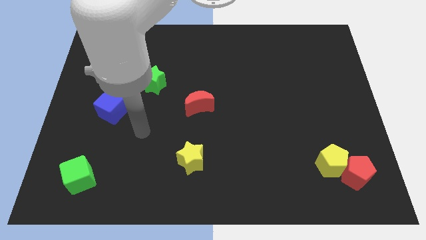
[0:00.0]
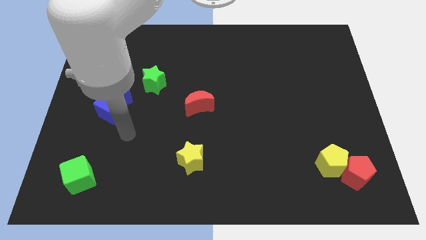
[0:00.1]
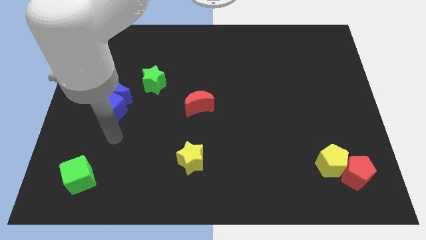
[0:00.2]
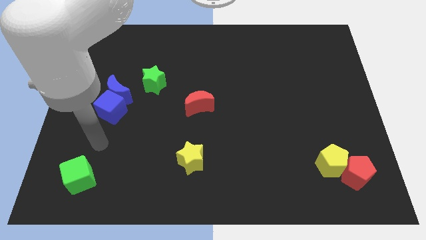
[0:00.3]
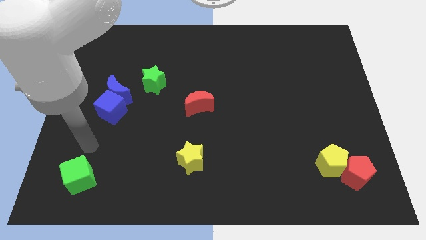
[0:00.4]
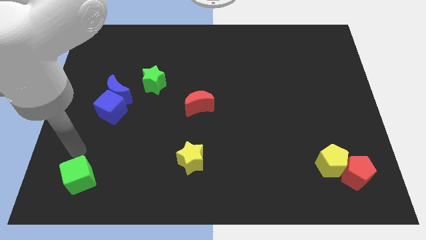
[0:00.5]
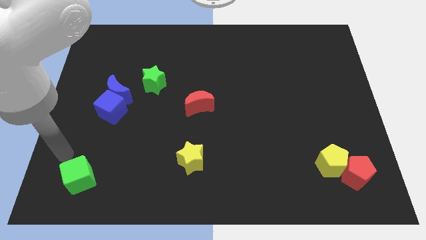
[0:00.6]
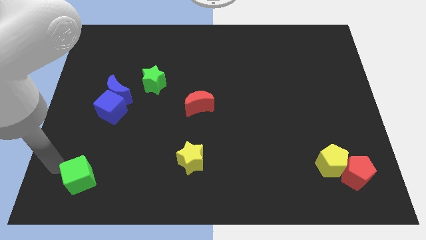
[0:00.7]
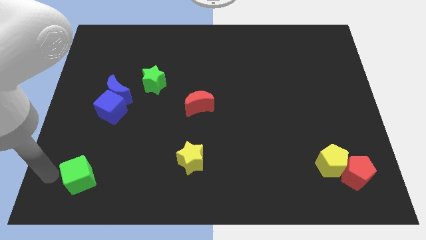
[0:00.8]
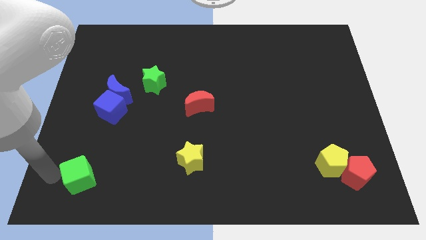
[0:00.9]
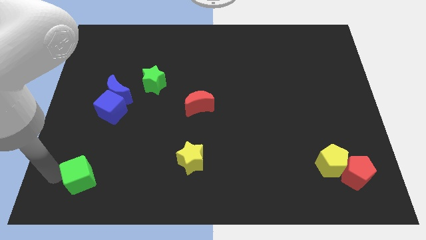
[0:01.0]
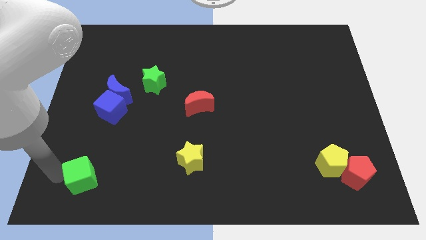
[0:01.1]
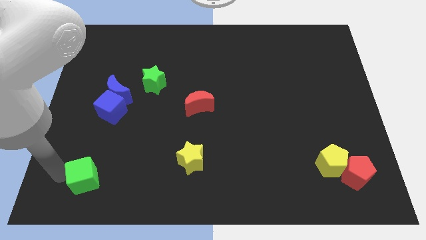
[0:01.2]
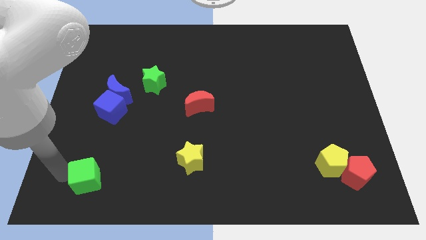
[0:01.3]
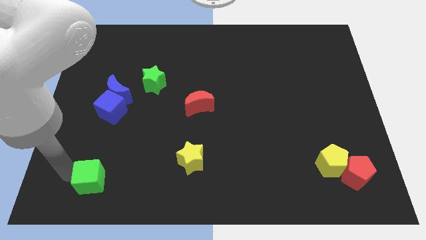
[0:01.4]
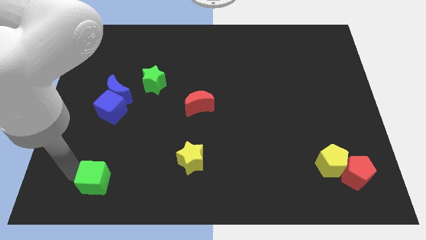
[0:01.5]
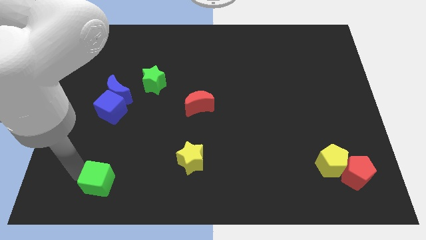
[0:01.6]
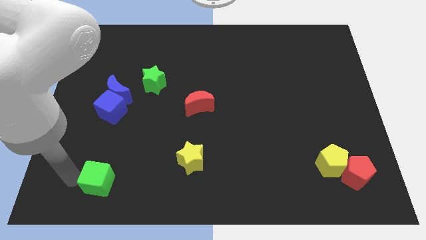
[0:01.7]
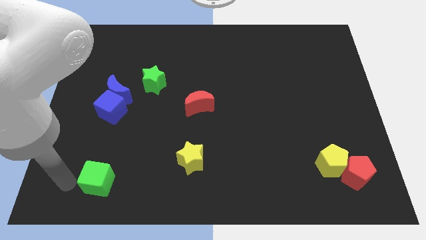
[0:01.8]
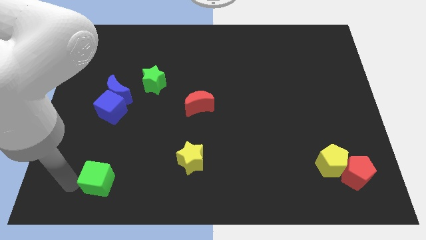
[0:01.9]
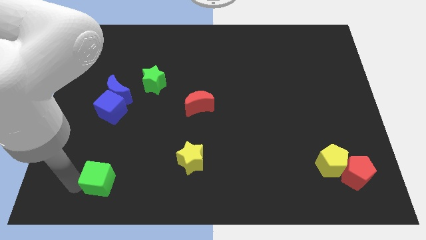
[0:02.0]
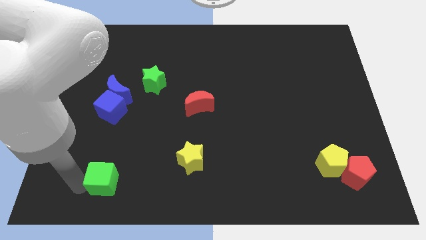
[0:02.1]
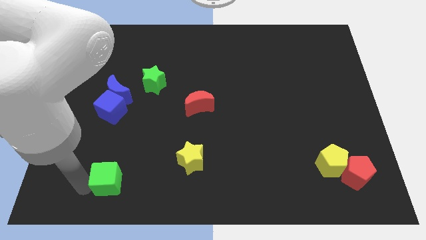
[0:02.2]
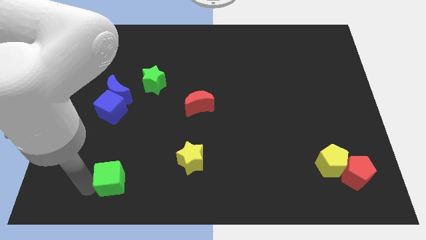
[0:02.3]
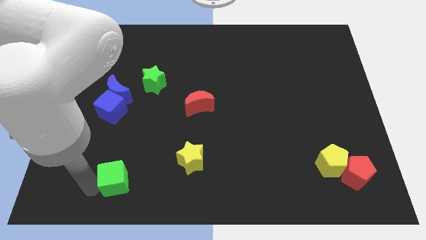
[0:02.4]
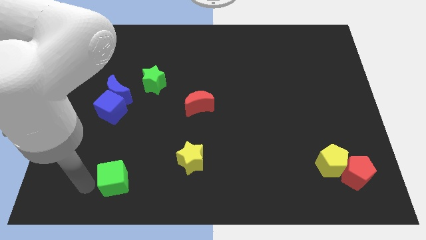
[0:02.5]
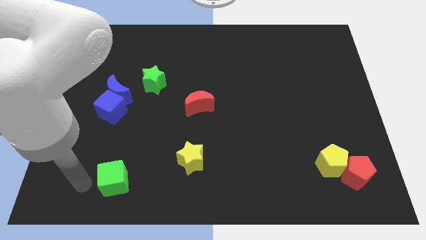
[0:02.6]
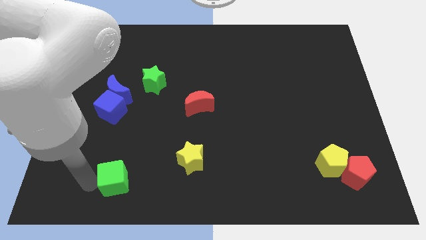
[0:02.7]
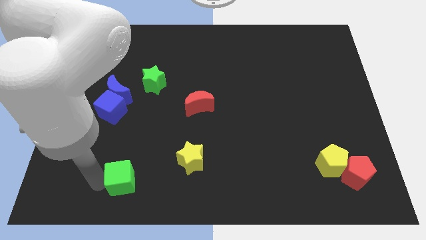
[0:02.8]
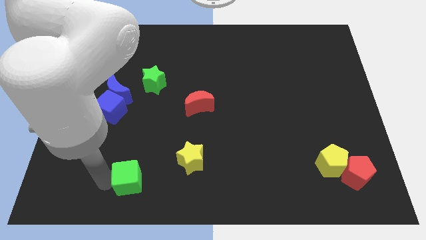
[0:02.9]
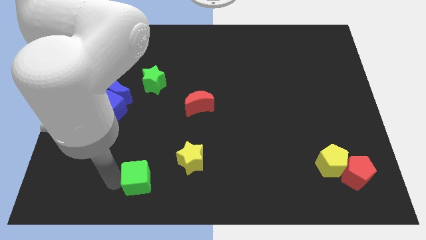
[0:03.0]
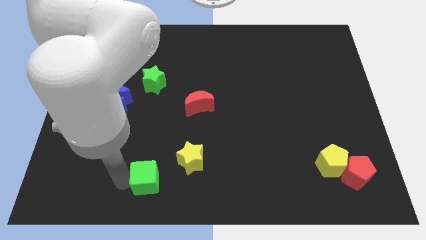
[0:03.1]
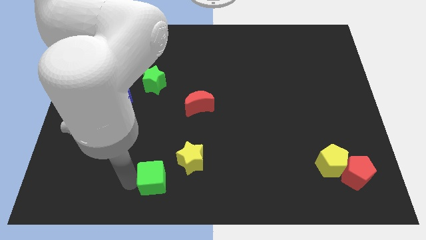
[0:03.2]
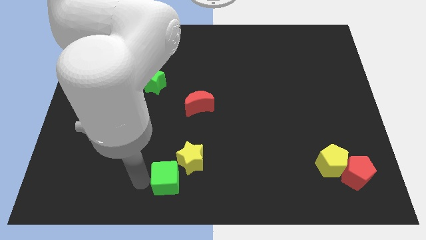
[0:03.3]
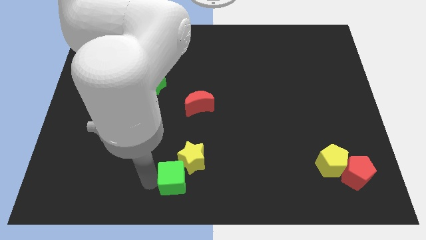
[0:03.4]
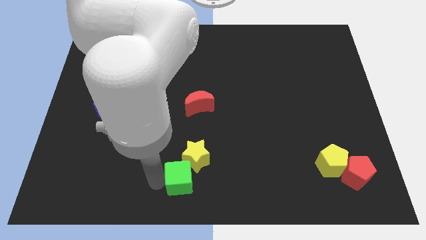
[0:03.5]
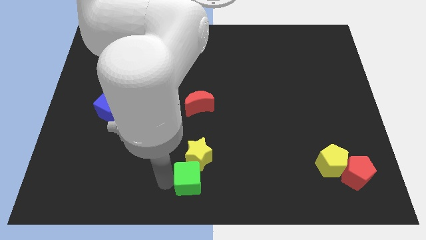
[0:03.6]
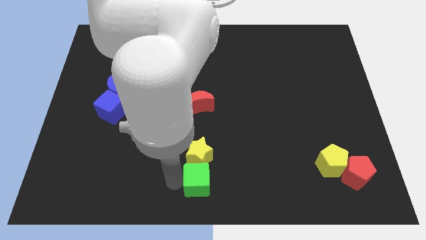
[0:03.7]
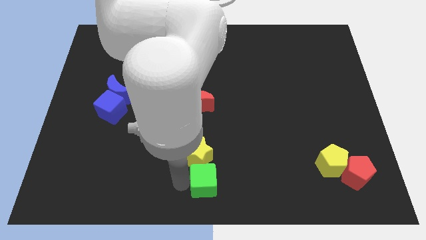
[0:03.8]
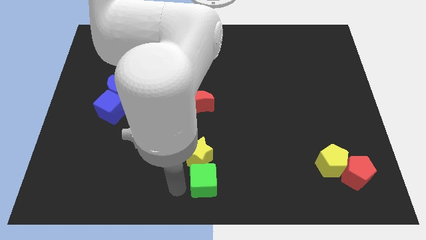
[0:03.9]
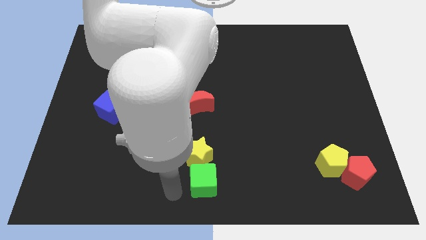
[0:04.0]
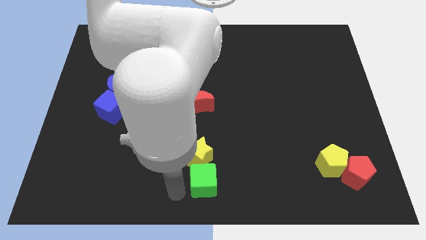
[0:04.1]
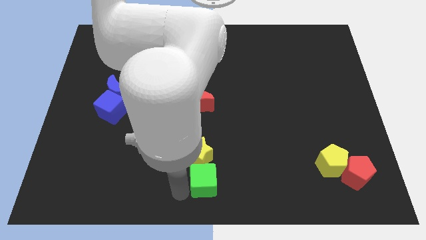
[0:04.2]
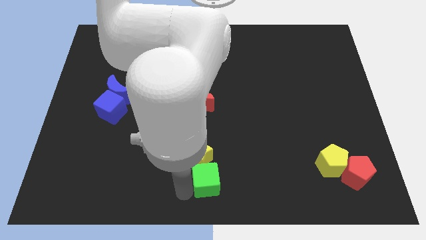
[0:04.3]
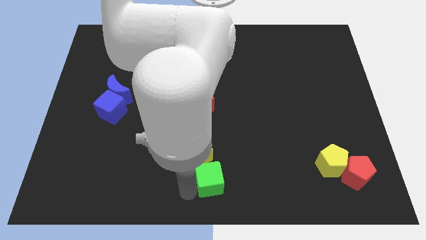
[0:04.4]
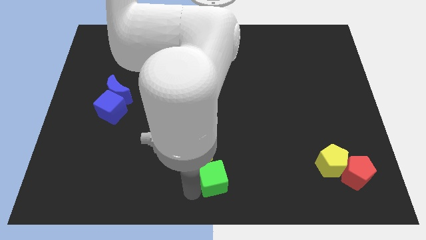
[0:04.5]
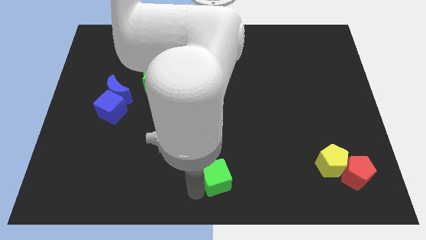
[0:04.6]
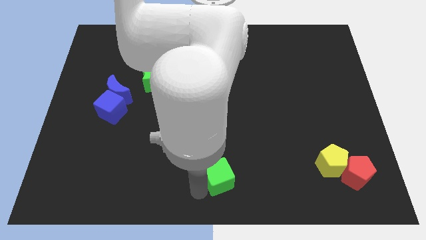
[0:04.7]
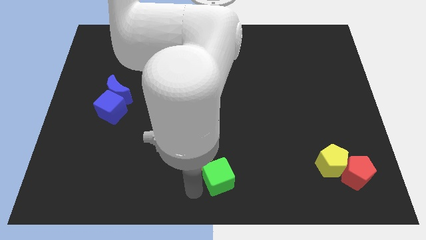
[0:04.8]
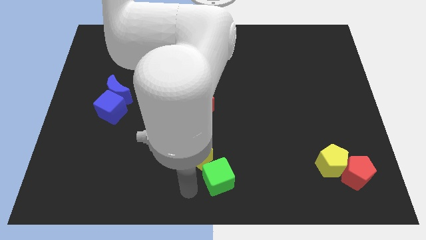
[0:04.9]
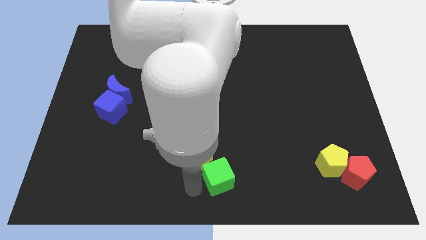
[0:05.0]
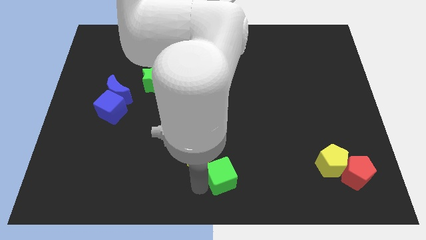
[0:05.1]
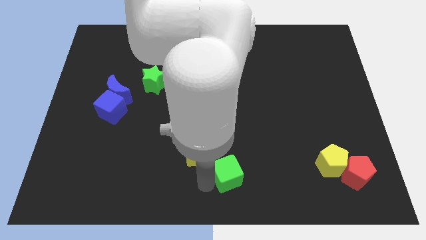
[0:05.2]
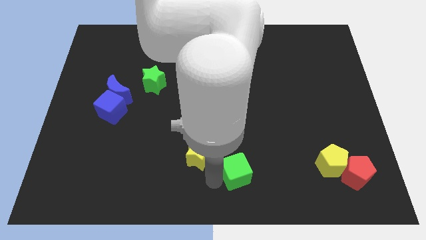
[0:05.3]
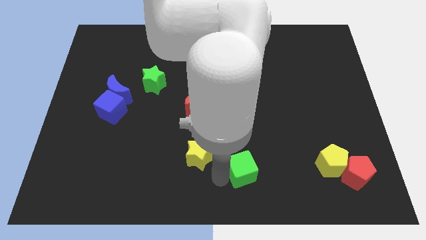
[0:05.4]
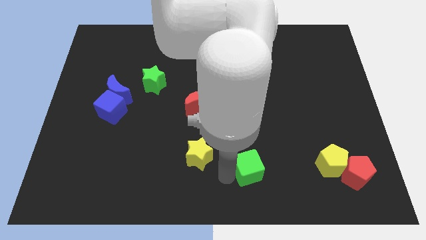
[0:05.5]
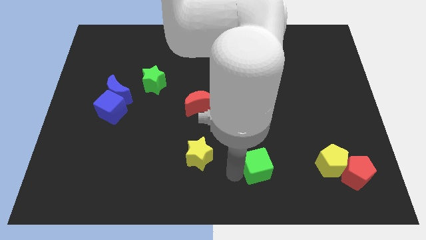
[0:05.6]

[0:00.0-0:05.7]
move the green cube just left of the yellow pentagon

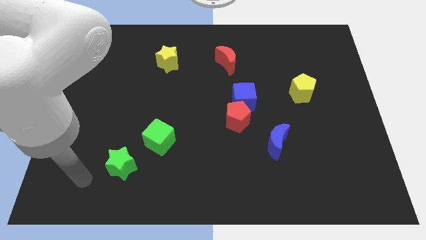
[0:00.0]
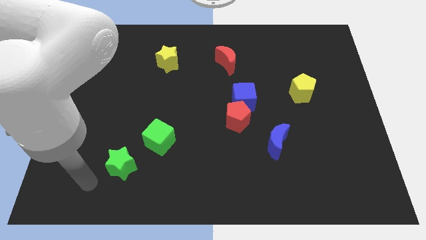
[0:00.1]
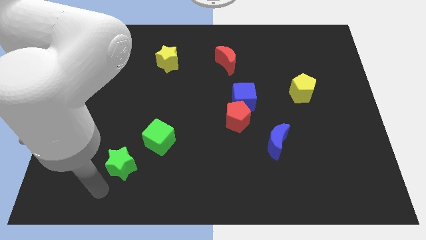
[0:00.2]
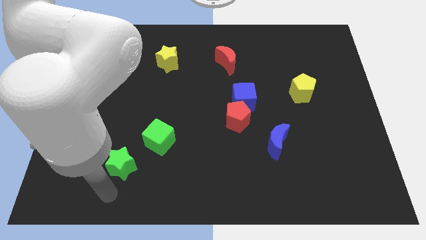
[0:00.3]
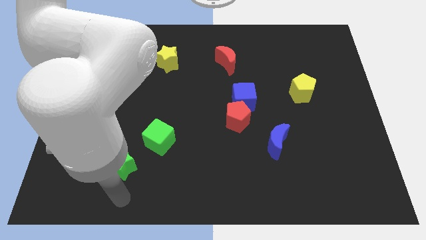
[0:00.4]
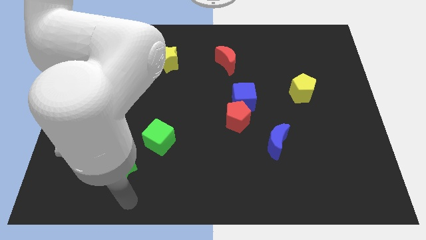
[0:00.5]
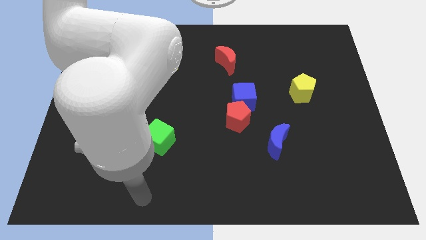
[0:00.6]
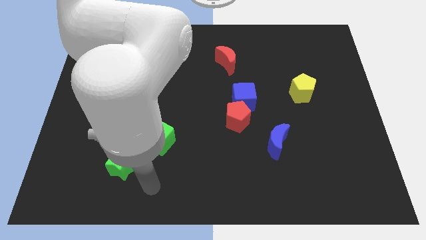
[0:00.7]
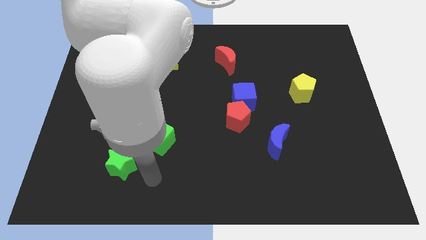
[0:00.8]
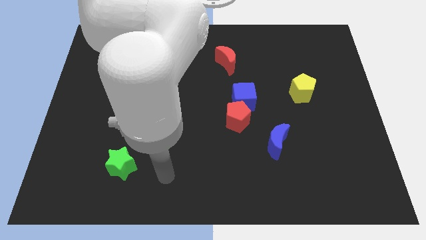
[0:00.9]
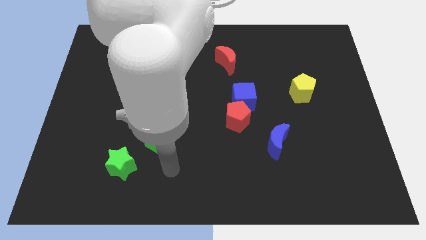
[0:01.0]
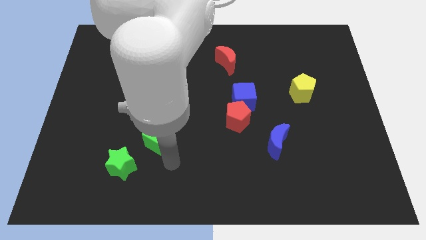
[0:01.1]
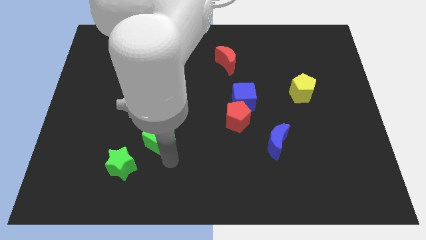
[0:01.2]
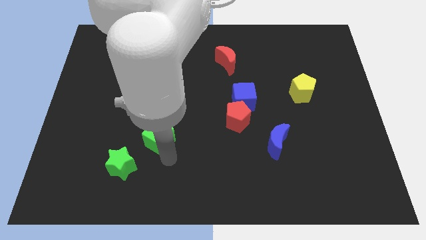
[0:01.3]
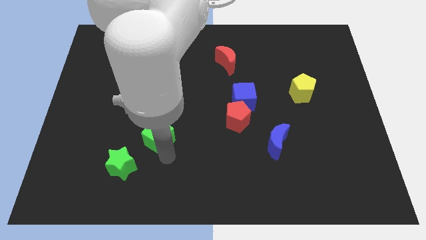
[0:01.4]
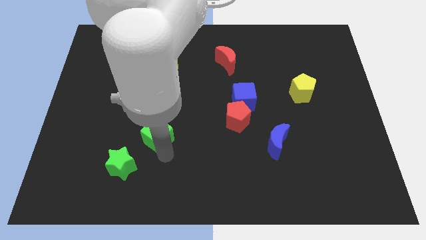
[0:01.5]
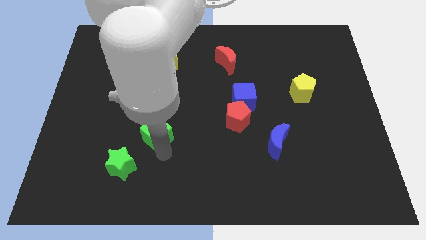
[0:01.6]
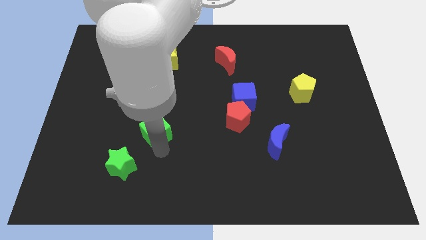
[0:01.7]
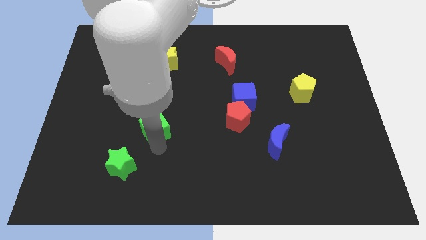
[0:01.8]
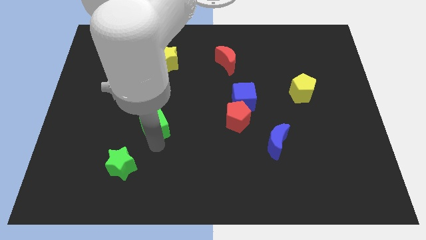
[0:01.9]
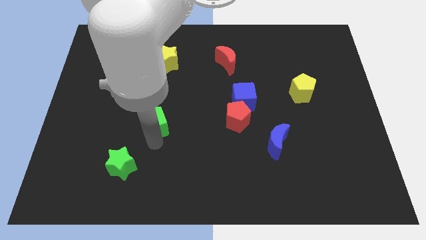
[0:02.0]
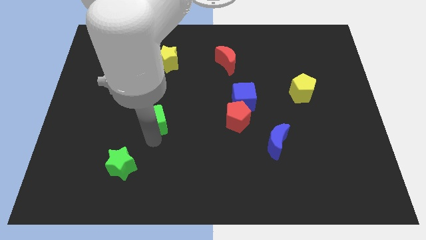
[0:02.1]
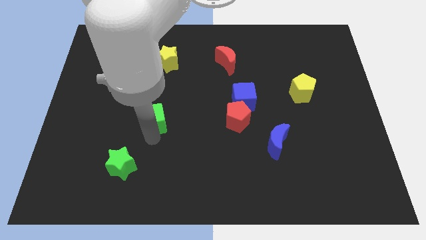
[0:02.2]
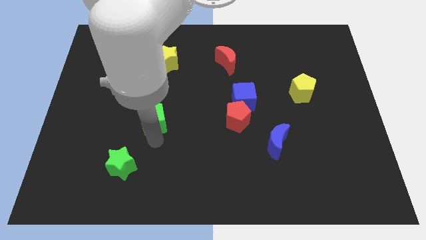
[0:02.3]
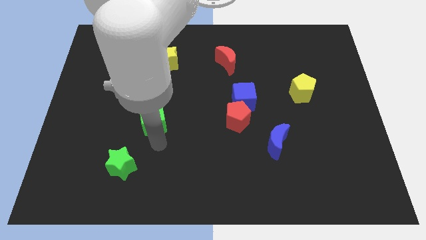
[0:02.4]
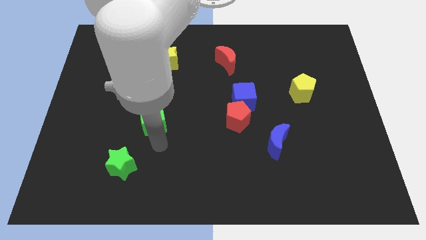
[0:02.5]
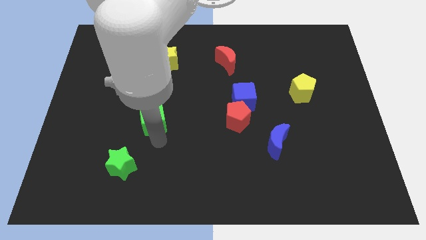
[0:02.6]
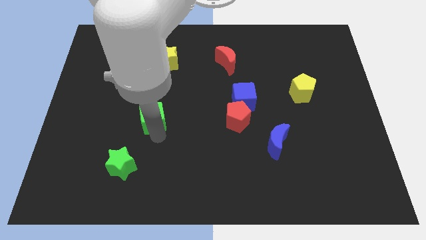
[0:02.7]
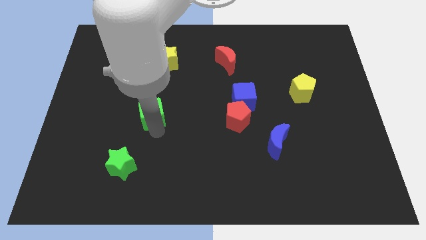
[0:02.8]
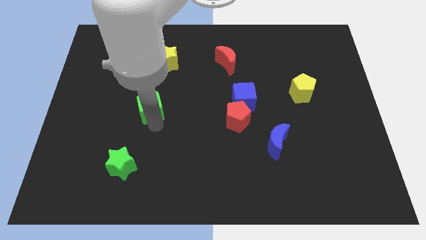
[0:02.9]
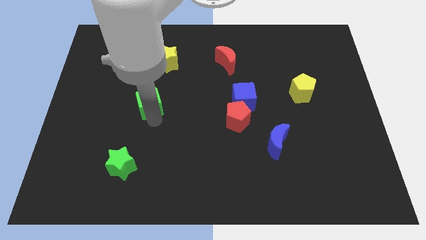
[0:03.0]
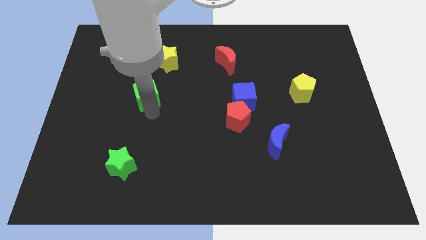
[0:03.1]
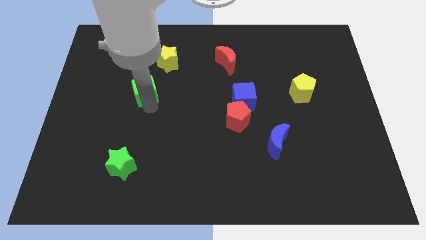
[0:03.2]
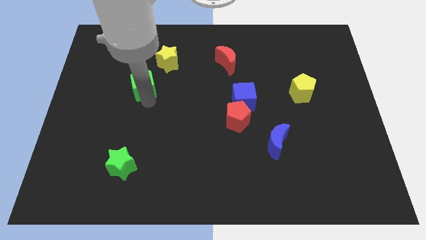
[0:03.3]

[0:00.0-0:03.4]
put the green cube diagonally down and to the left of the yellow star
